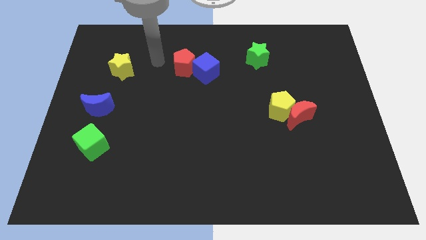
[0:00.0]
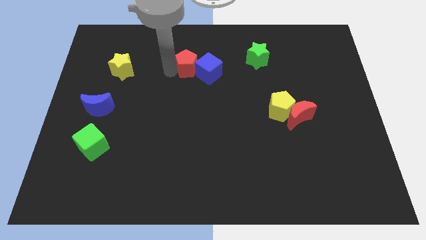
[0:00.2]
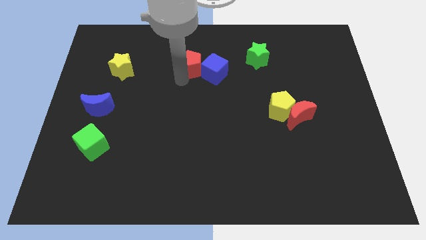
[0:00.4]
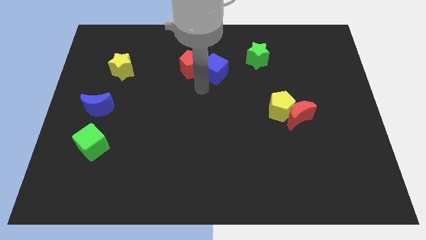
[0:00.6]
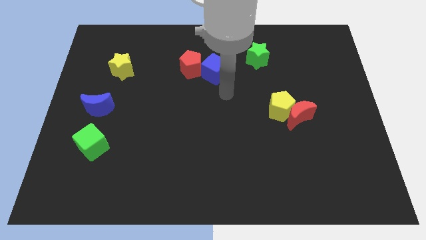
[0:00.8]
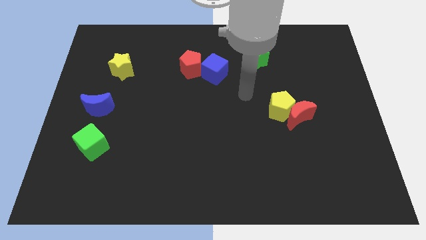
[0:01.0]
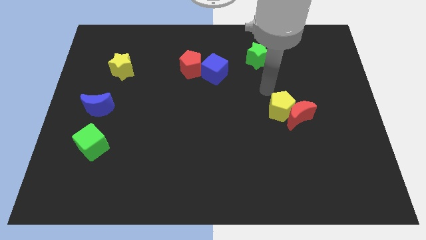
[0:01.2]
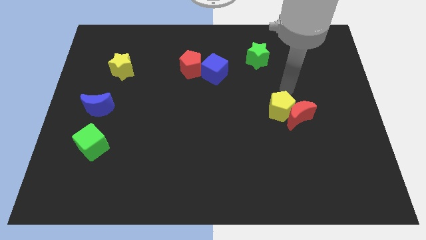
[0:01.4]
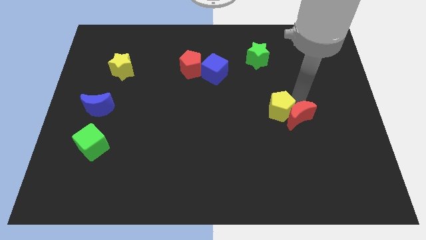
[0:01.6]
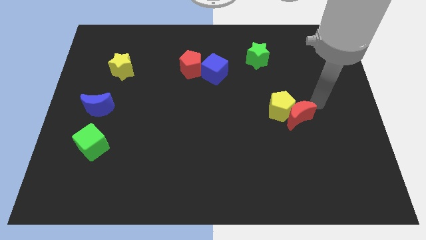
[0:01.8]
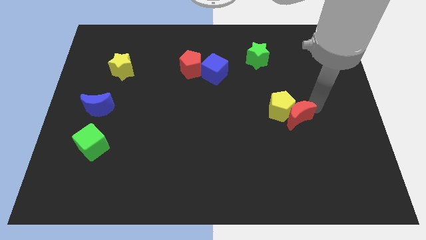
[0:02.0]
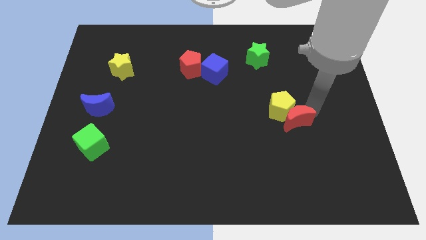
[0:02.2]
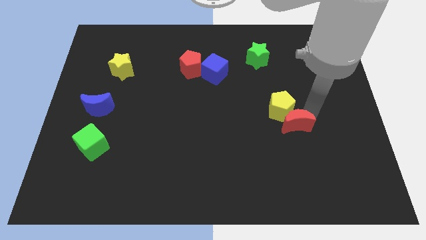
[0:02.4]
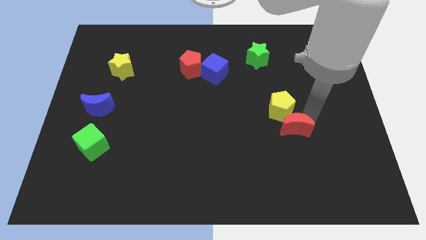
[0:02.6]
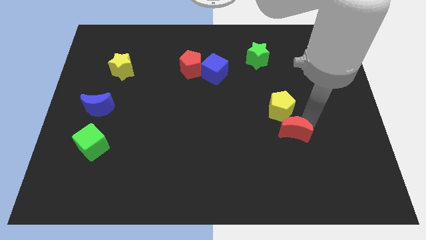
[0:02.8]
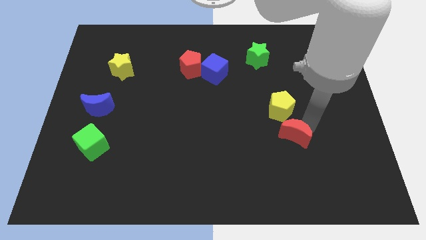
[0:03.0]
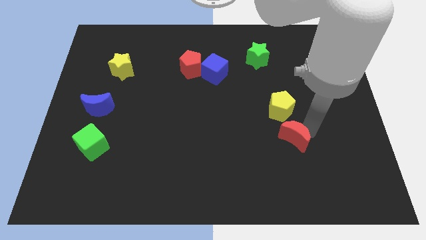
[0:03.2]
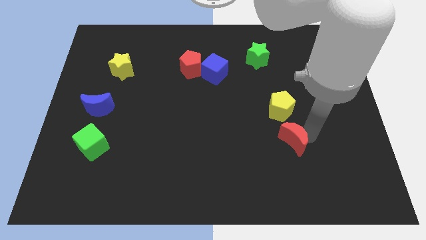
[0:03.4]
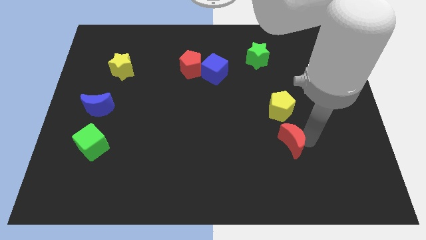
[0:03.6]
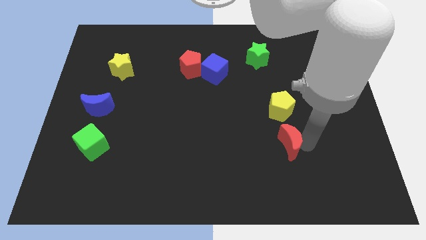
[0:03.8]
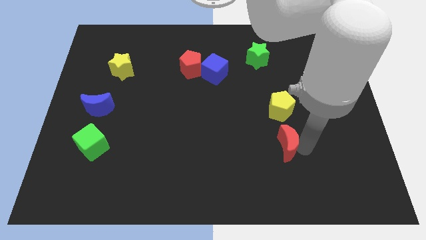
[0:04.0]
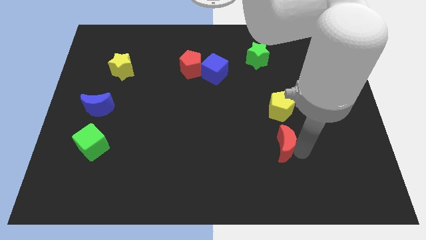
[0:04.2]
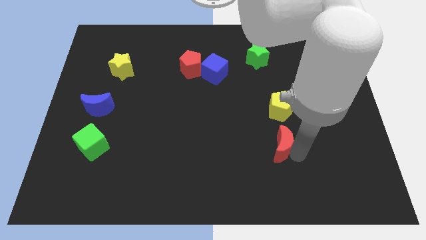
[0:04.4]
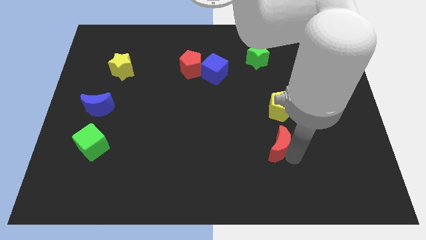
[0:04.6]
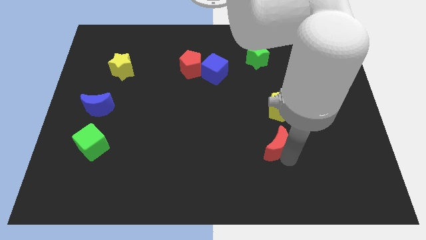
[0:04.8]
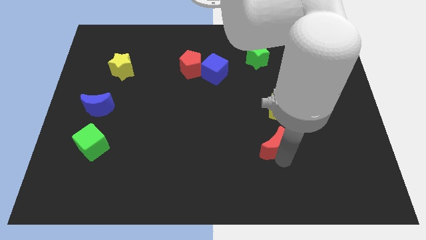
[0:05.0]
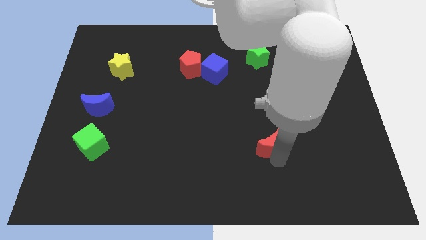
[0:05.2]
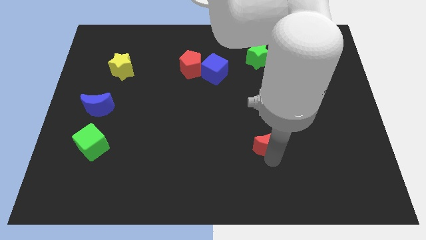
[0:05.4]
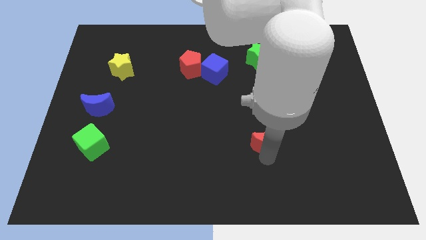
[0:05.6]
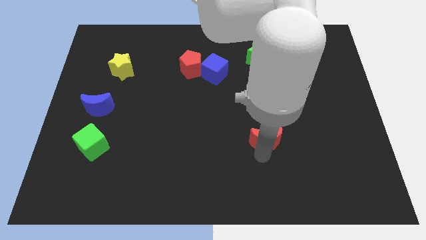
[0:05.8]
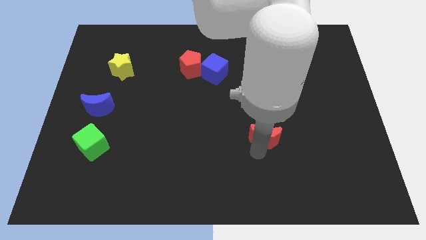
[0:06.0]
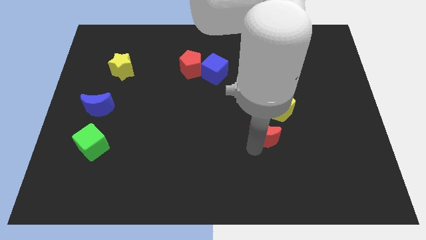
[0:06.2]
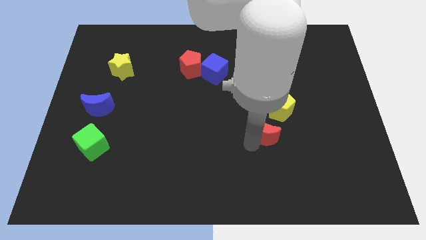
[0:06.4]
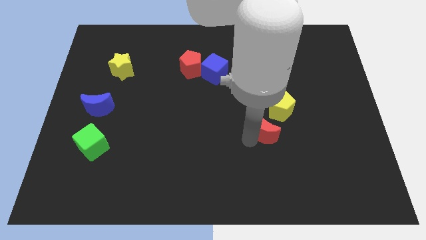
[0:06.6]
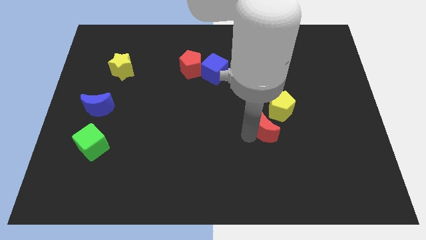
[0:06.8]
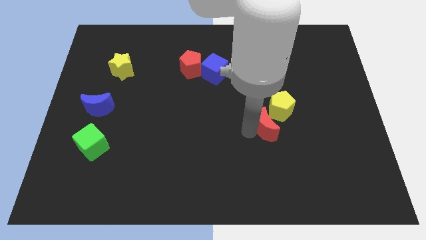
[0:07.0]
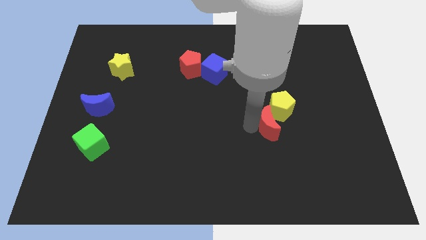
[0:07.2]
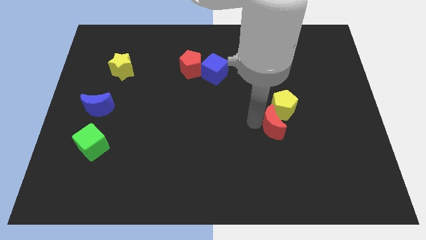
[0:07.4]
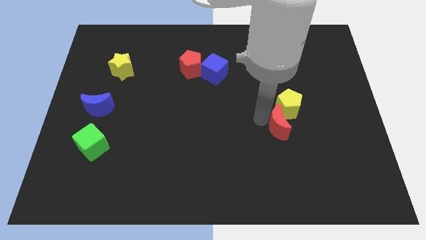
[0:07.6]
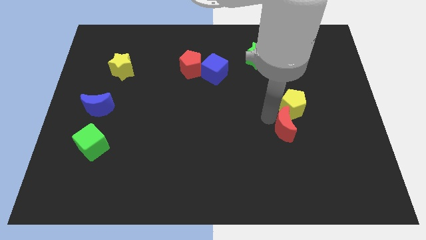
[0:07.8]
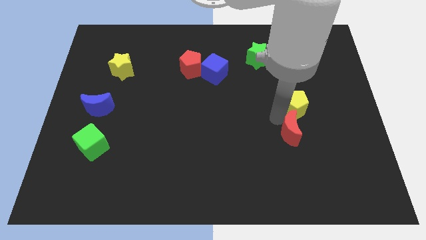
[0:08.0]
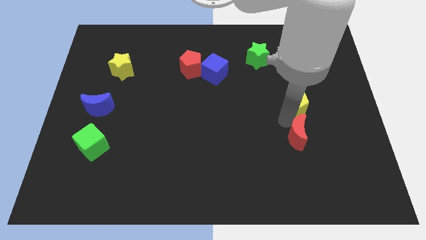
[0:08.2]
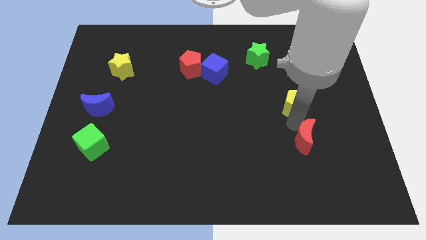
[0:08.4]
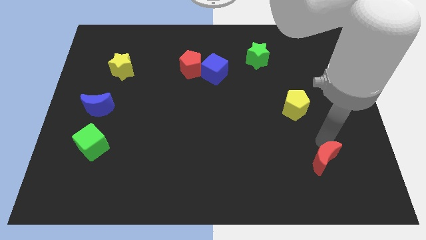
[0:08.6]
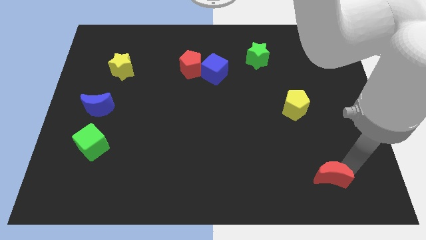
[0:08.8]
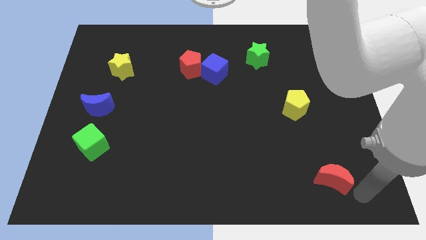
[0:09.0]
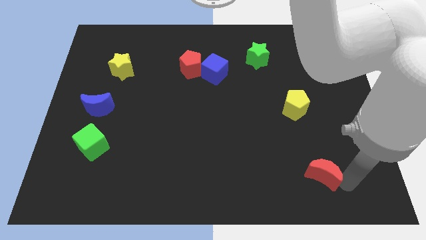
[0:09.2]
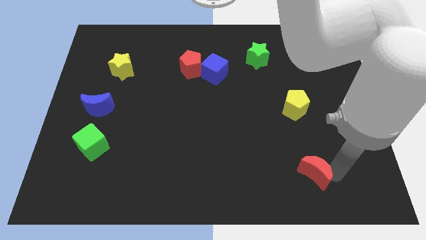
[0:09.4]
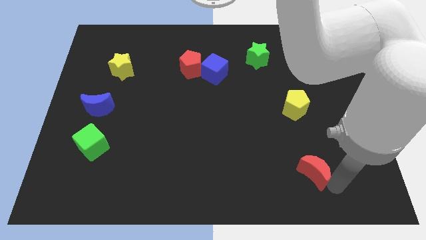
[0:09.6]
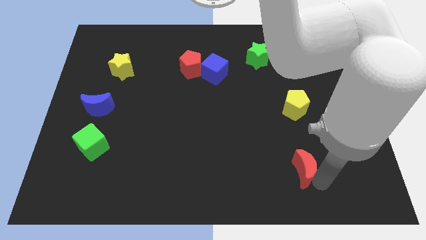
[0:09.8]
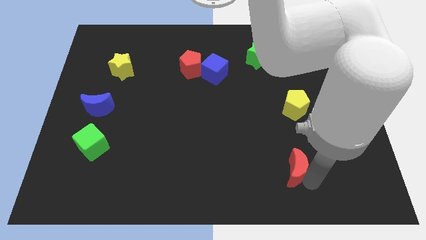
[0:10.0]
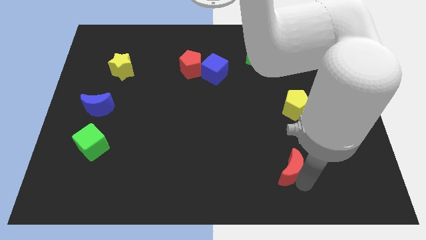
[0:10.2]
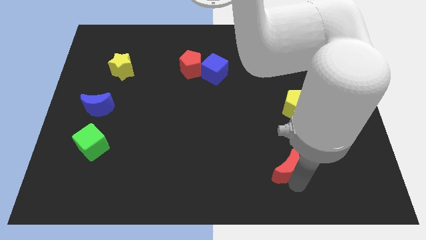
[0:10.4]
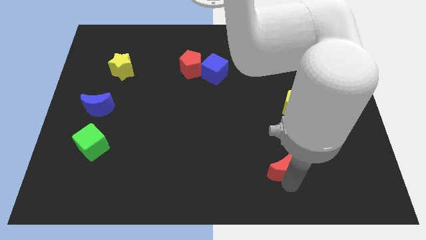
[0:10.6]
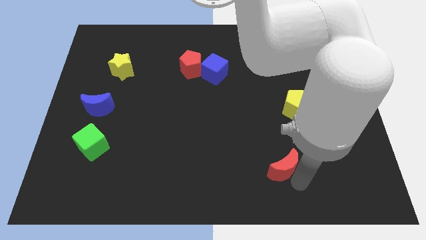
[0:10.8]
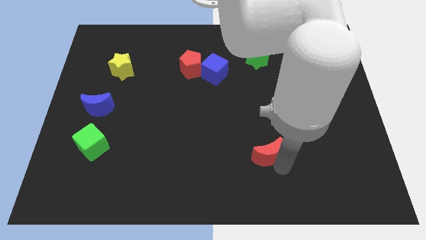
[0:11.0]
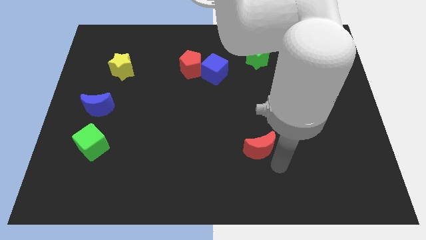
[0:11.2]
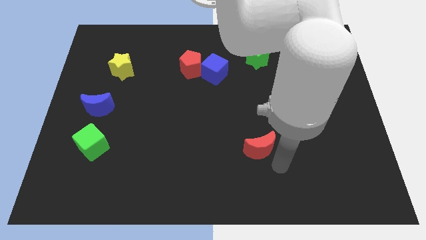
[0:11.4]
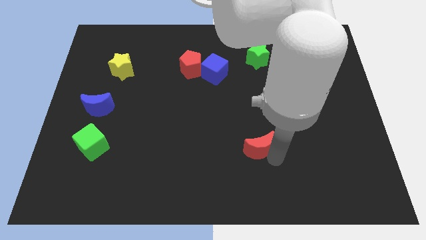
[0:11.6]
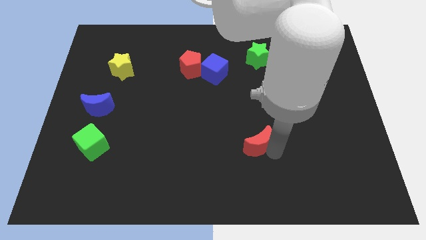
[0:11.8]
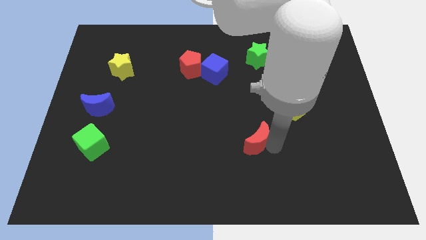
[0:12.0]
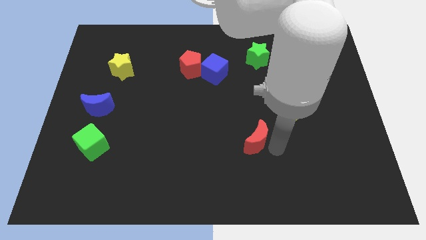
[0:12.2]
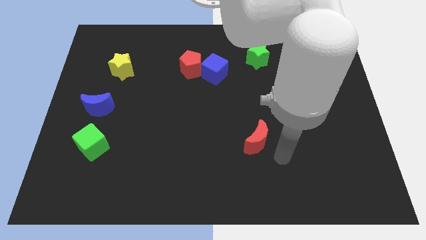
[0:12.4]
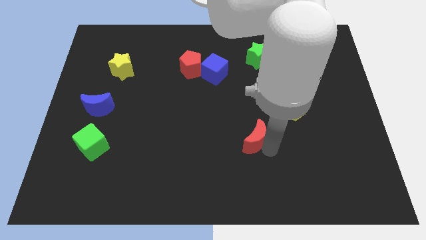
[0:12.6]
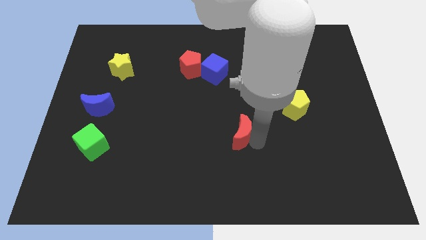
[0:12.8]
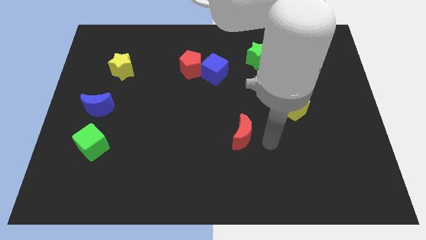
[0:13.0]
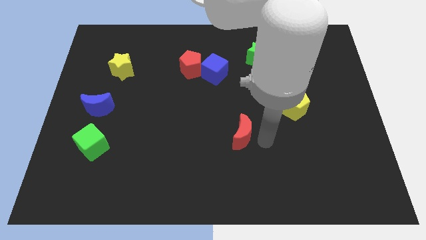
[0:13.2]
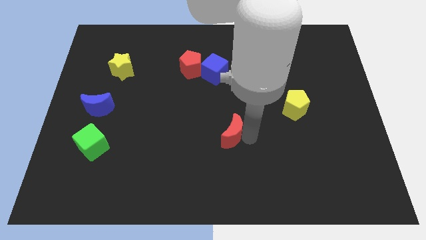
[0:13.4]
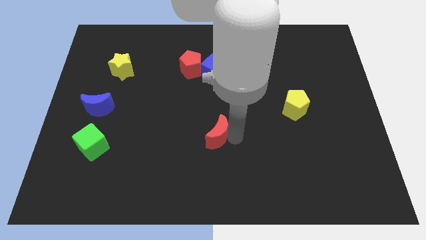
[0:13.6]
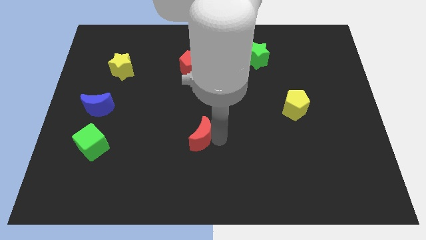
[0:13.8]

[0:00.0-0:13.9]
move the red moon to the left

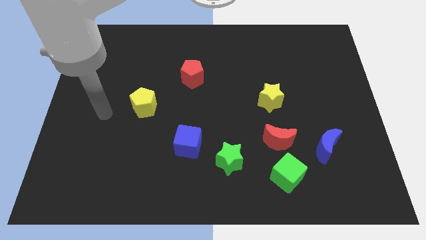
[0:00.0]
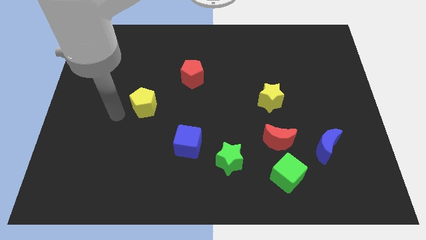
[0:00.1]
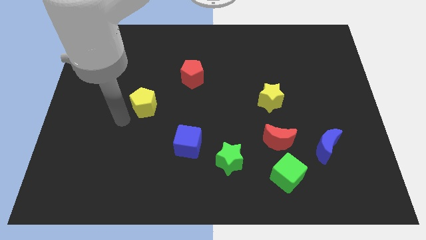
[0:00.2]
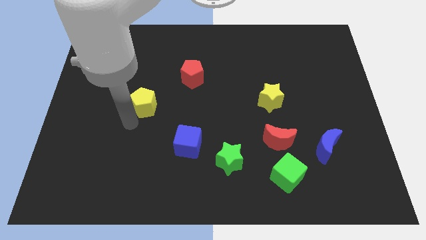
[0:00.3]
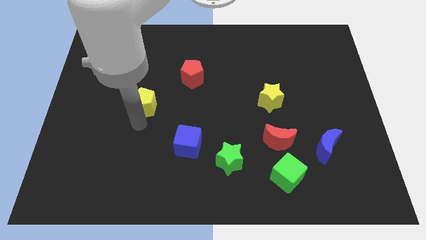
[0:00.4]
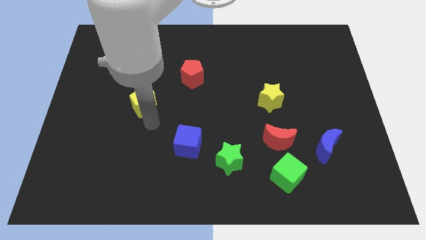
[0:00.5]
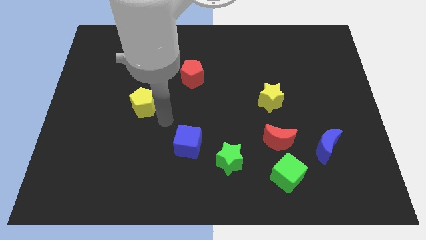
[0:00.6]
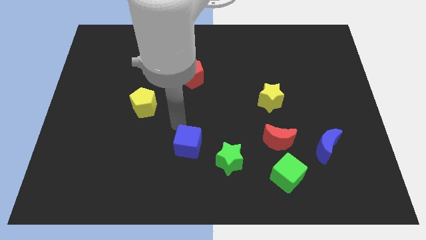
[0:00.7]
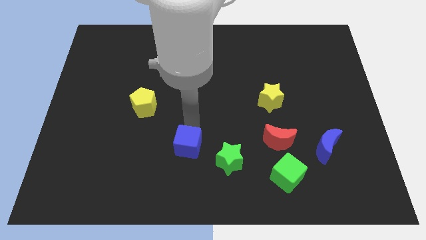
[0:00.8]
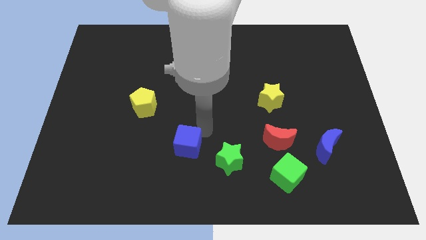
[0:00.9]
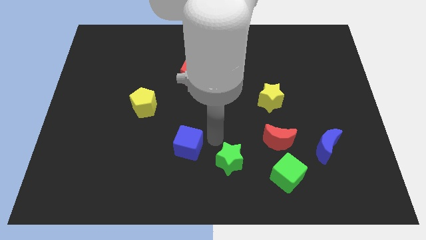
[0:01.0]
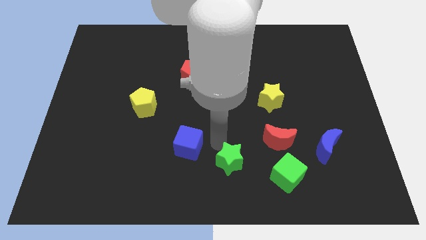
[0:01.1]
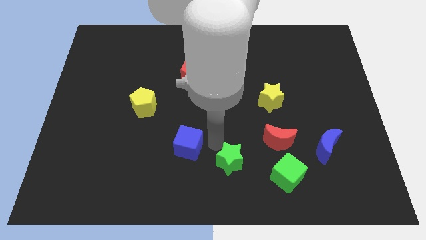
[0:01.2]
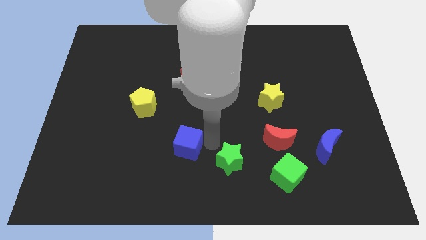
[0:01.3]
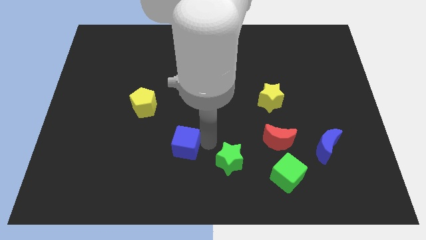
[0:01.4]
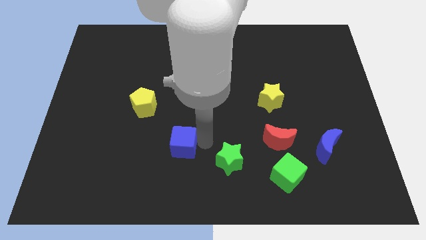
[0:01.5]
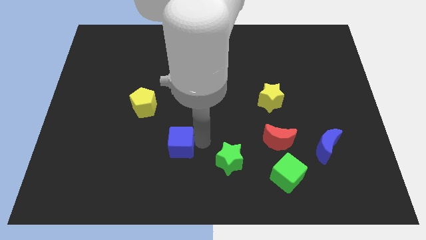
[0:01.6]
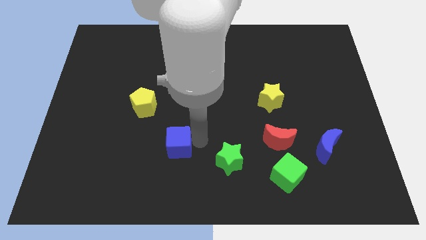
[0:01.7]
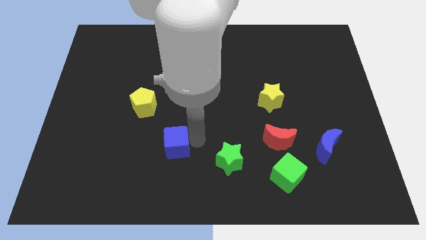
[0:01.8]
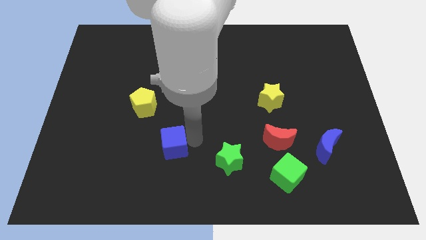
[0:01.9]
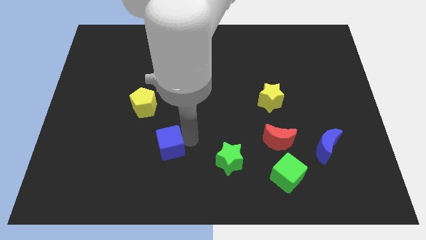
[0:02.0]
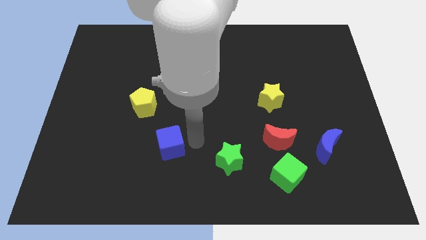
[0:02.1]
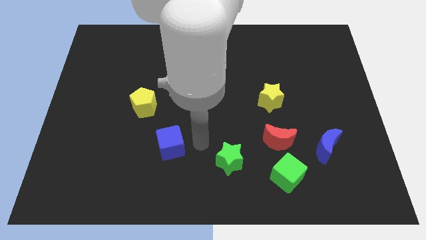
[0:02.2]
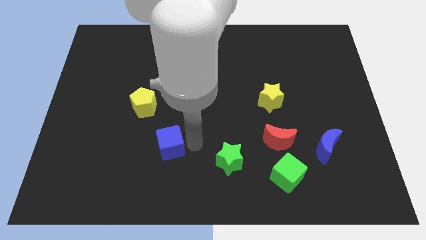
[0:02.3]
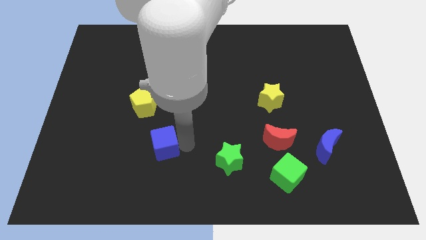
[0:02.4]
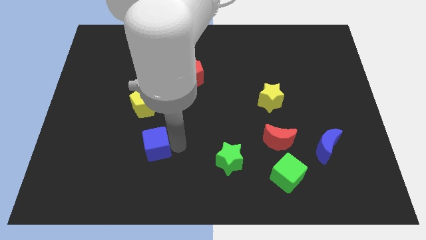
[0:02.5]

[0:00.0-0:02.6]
slide the blue cube slightly left
